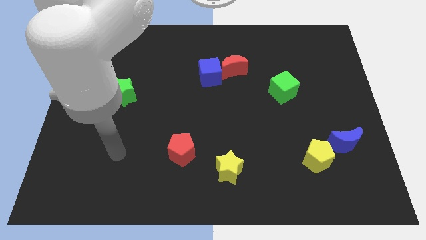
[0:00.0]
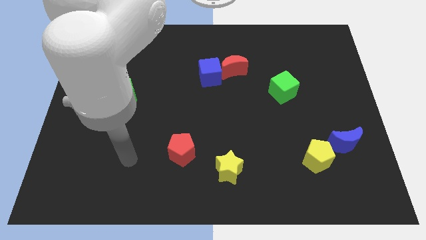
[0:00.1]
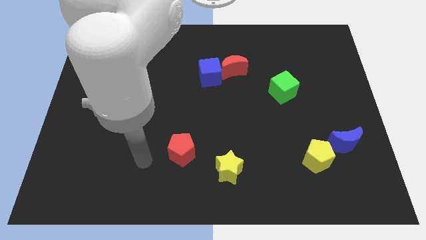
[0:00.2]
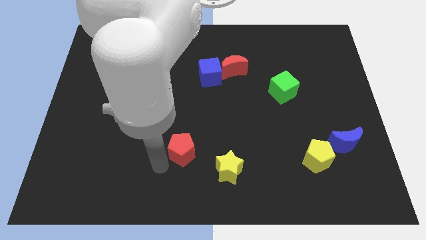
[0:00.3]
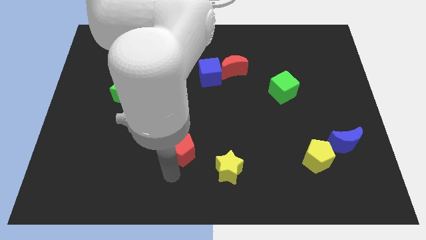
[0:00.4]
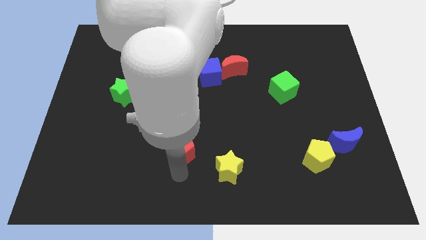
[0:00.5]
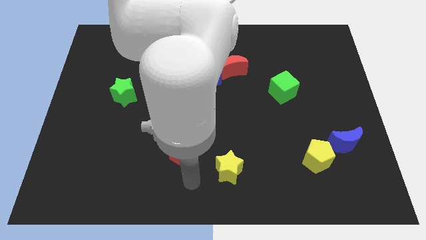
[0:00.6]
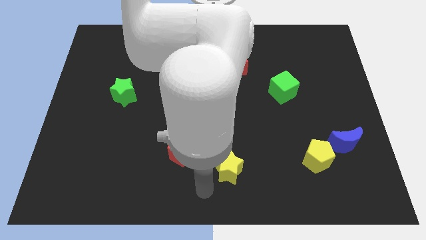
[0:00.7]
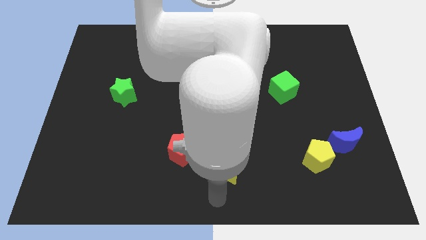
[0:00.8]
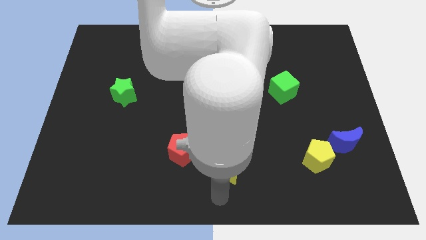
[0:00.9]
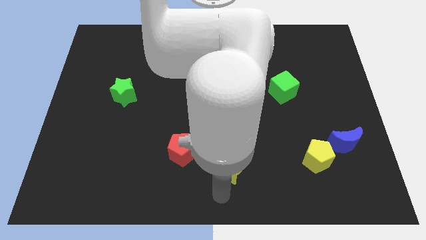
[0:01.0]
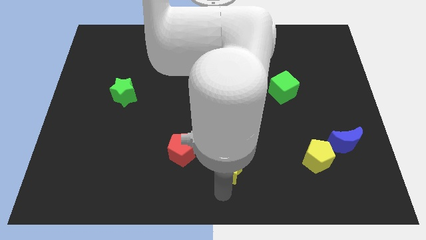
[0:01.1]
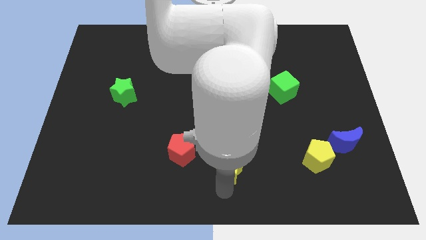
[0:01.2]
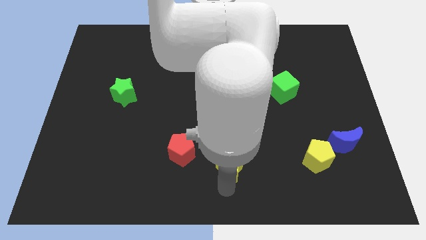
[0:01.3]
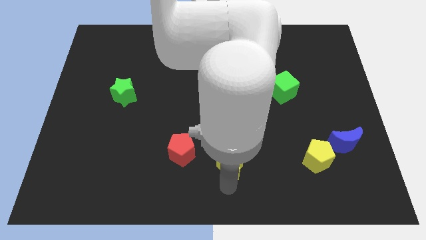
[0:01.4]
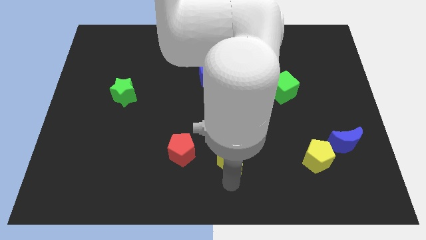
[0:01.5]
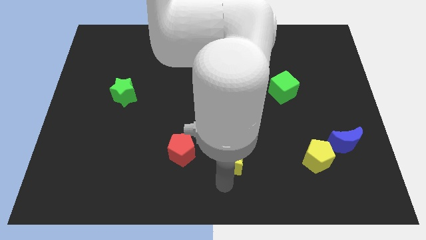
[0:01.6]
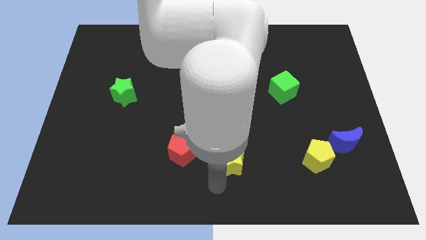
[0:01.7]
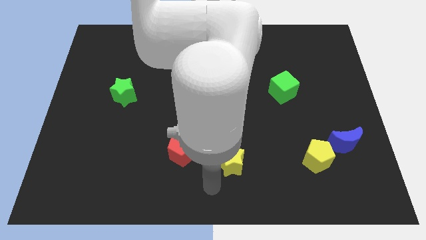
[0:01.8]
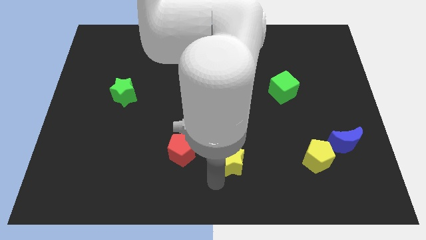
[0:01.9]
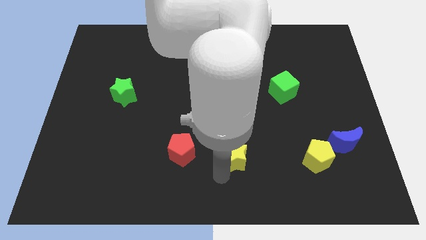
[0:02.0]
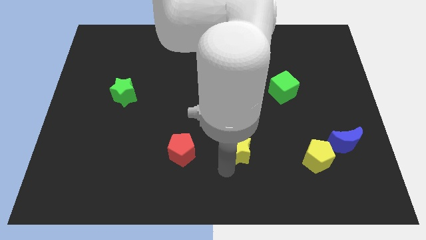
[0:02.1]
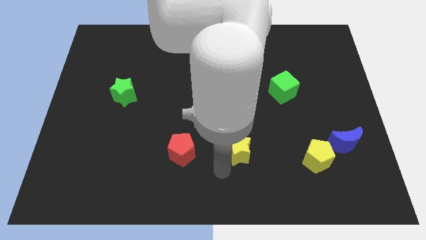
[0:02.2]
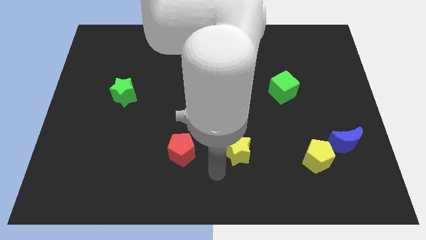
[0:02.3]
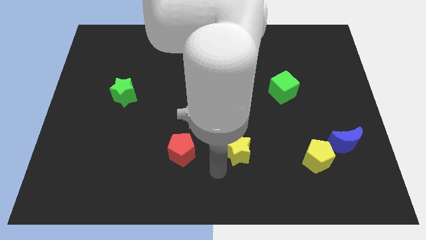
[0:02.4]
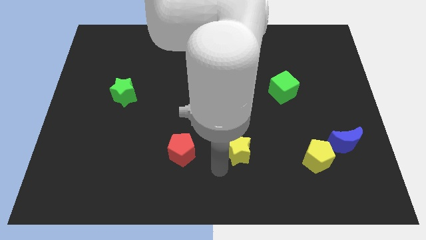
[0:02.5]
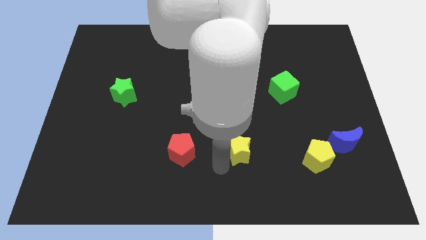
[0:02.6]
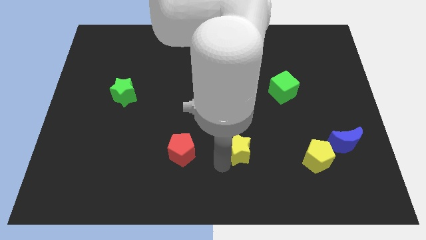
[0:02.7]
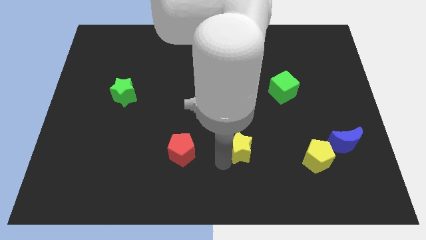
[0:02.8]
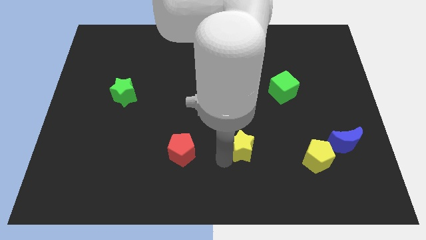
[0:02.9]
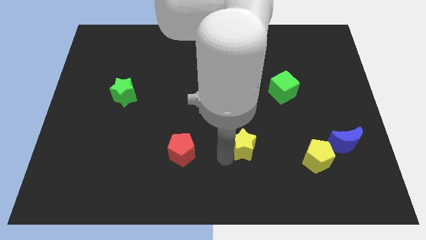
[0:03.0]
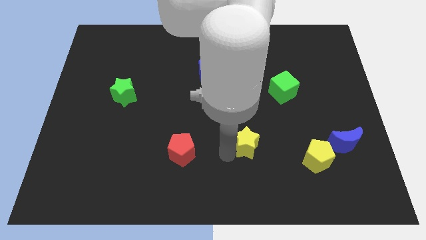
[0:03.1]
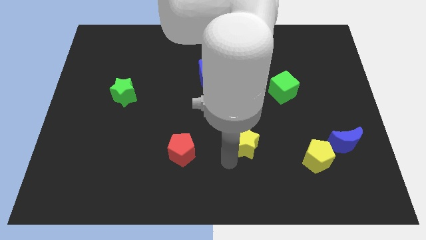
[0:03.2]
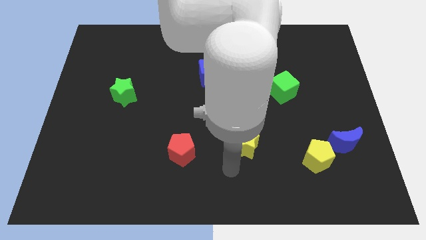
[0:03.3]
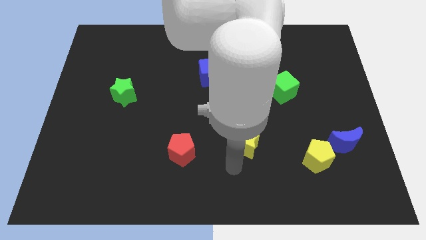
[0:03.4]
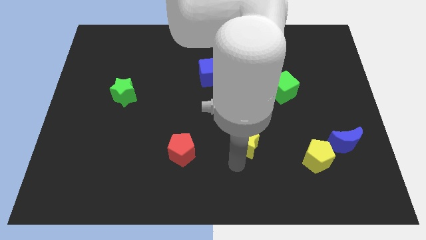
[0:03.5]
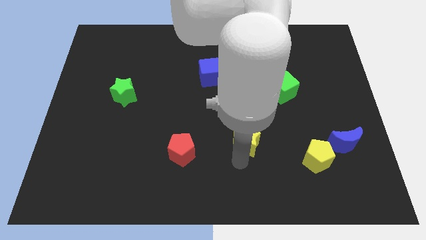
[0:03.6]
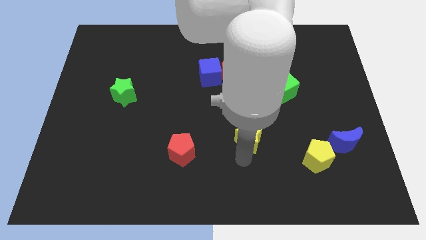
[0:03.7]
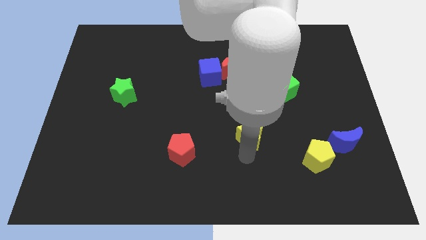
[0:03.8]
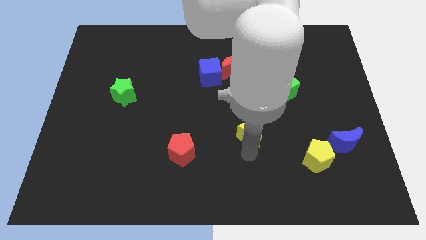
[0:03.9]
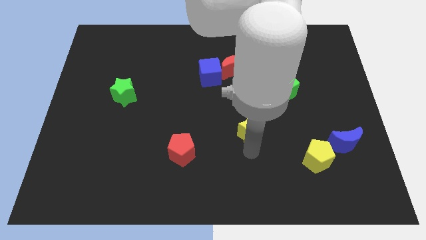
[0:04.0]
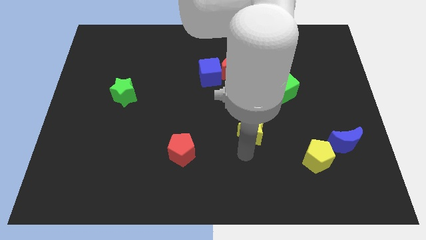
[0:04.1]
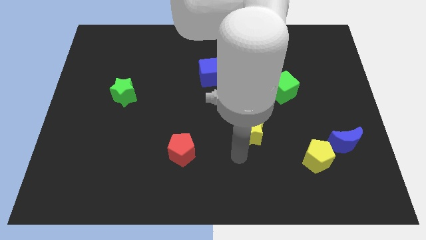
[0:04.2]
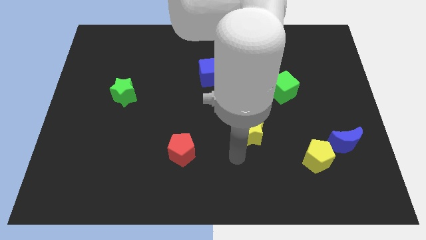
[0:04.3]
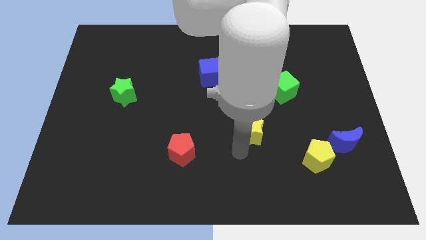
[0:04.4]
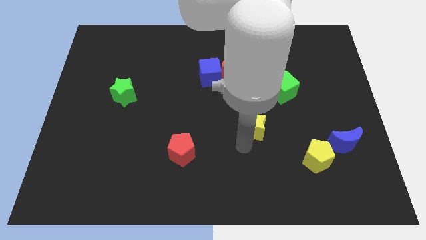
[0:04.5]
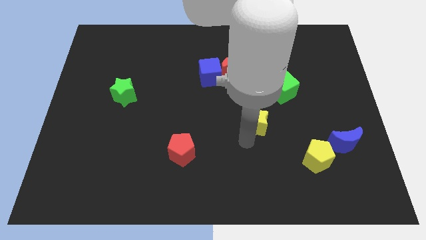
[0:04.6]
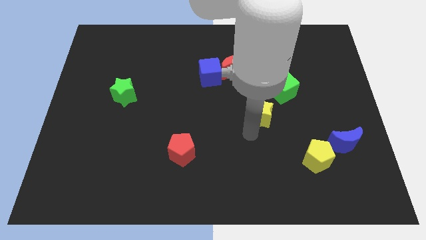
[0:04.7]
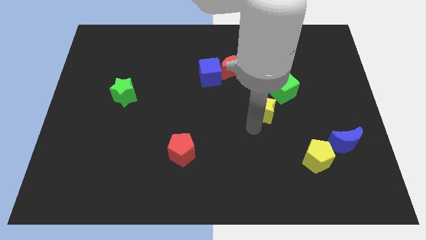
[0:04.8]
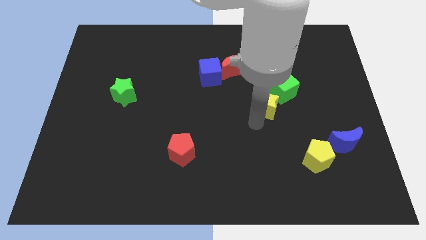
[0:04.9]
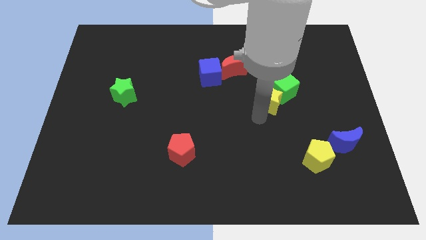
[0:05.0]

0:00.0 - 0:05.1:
put the yellow star towards the green cube

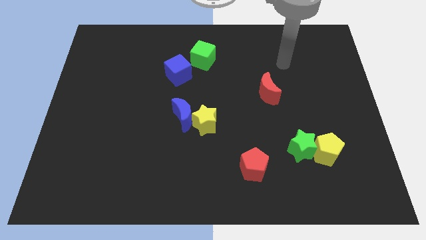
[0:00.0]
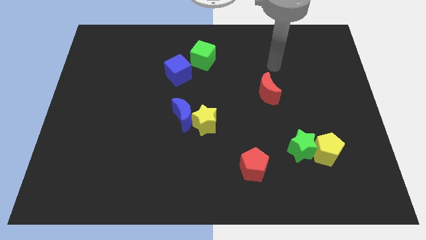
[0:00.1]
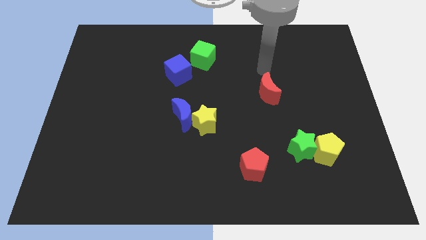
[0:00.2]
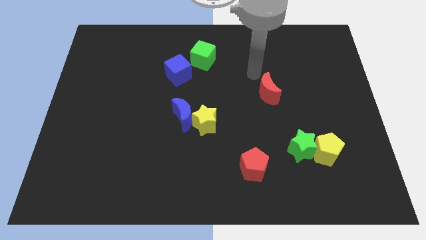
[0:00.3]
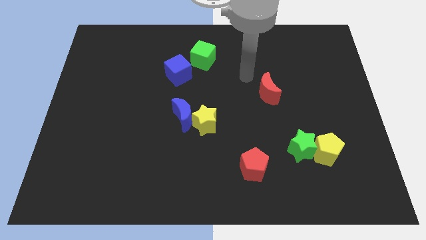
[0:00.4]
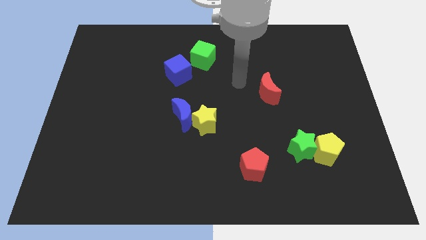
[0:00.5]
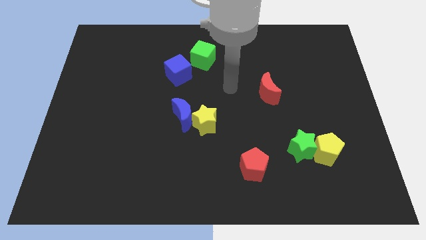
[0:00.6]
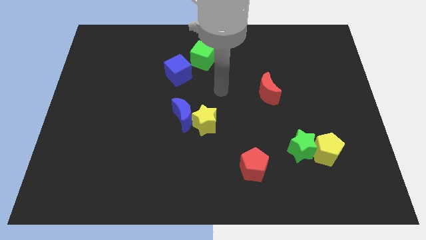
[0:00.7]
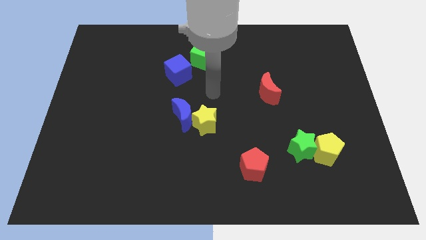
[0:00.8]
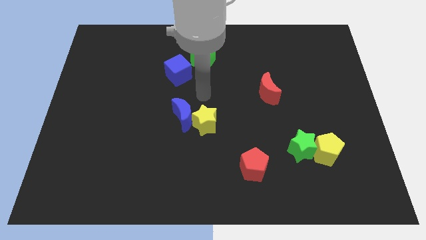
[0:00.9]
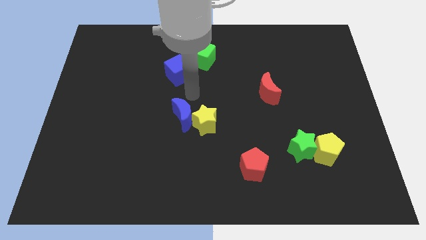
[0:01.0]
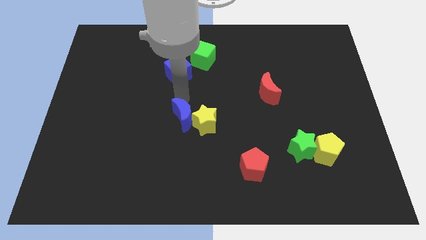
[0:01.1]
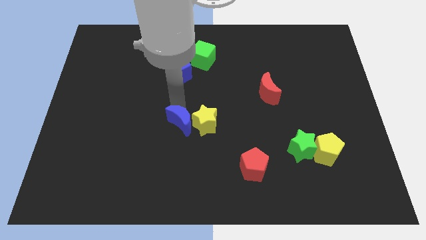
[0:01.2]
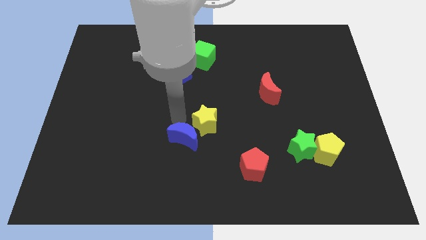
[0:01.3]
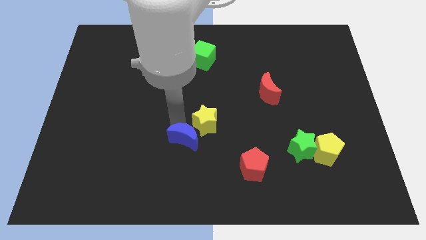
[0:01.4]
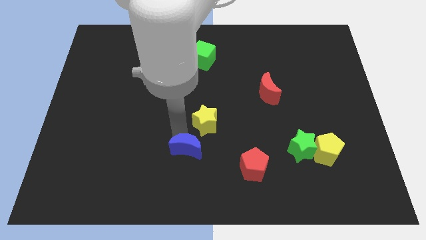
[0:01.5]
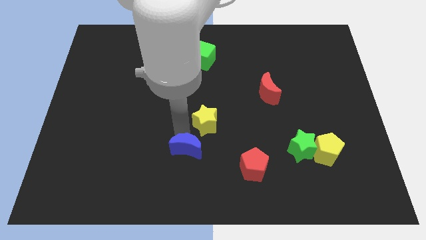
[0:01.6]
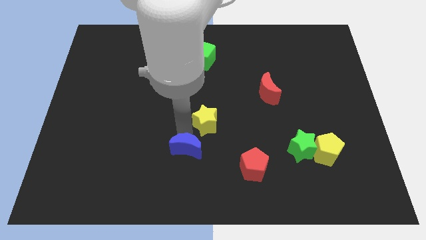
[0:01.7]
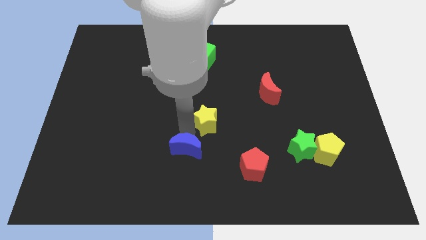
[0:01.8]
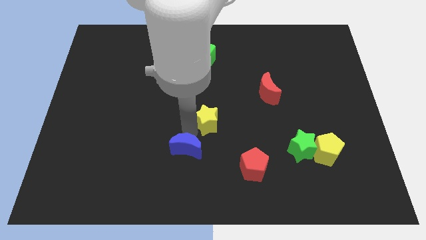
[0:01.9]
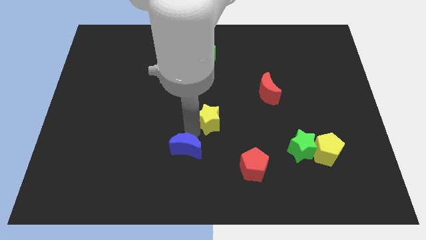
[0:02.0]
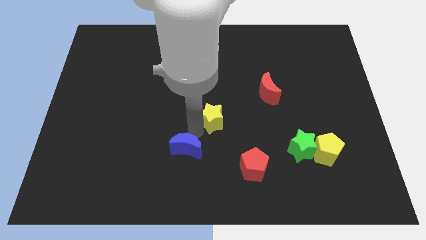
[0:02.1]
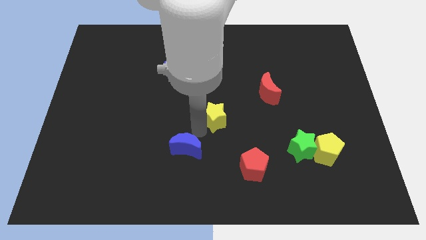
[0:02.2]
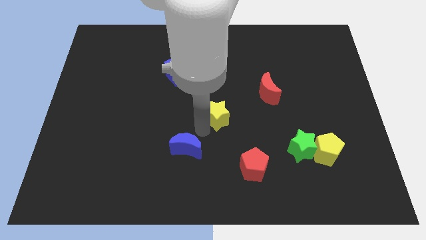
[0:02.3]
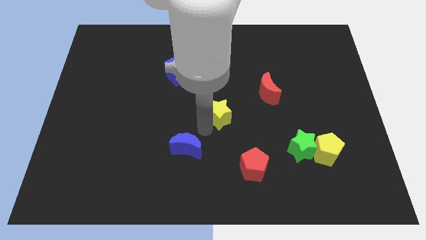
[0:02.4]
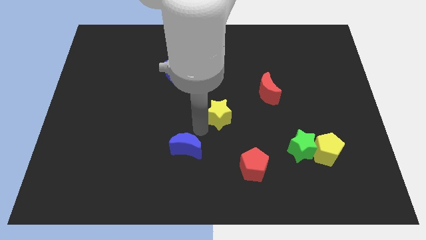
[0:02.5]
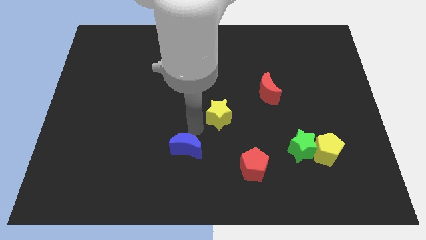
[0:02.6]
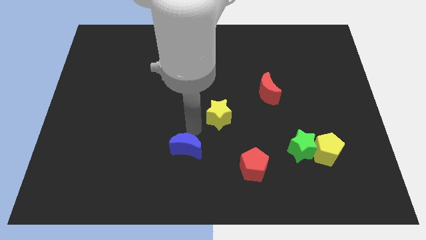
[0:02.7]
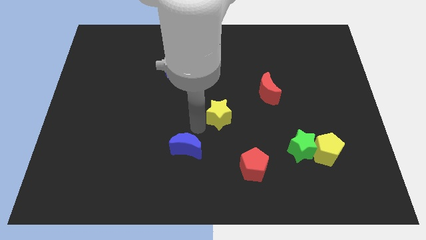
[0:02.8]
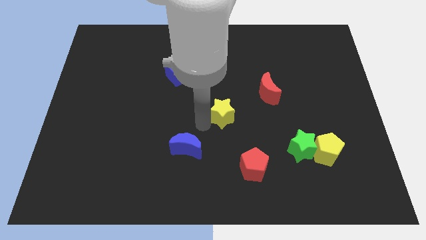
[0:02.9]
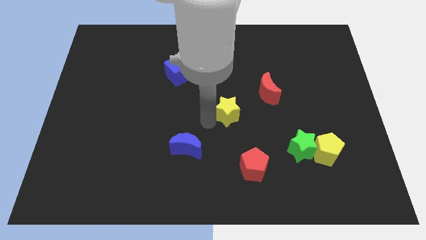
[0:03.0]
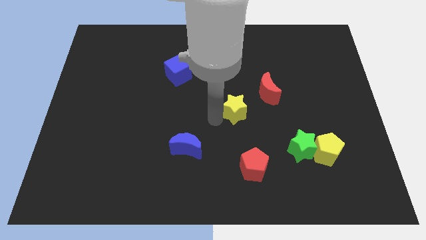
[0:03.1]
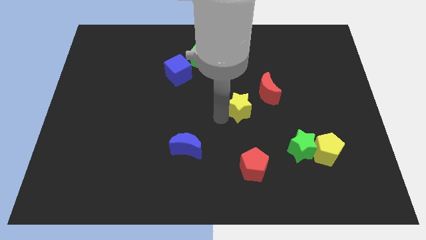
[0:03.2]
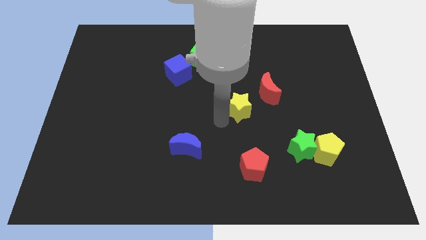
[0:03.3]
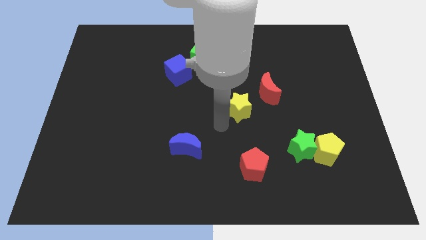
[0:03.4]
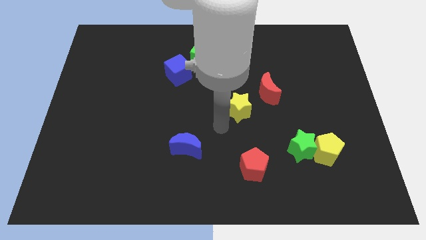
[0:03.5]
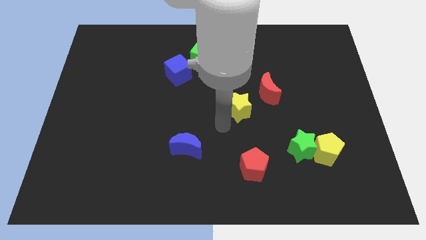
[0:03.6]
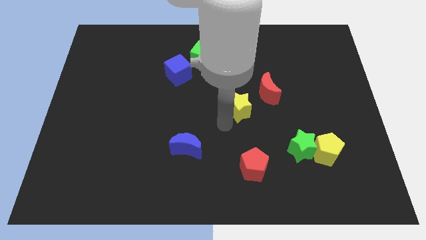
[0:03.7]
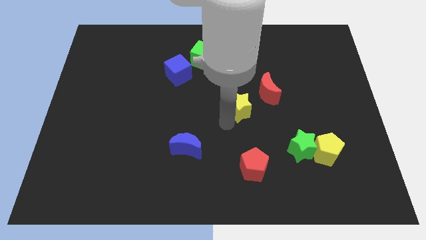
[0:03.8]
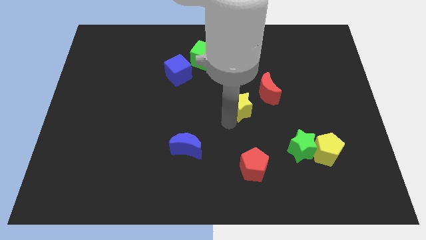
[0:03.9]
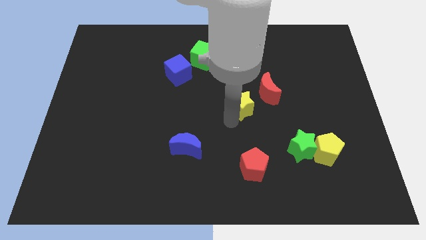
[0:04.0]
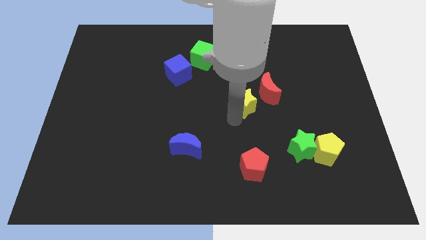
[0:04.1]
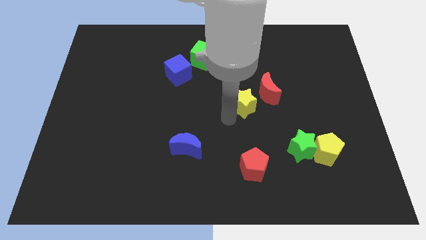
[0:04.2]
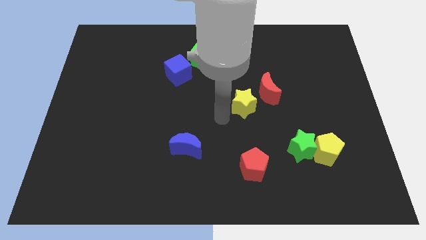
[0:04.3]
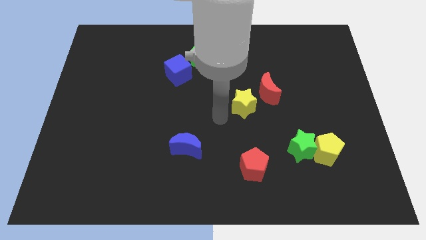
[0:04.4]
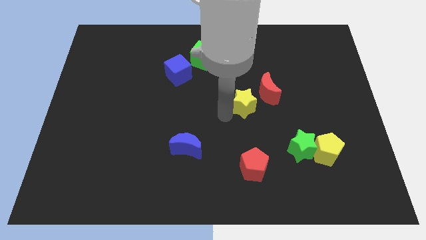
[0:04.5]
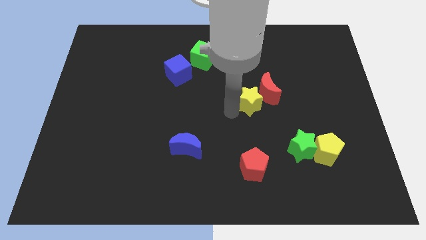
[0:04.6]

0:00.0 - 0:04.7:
put the yellow star next to the red moon
